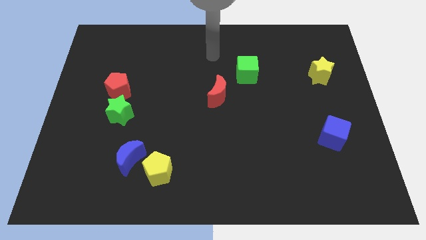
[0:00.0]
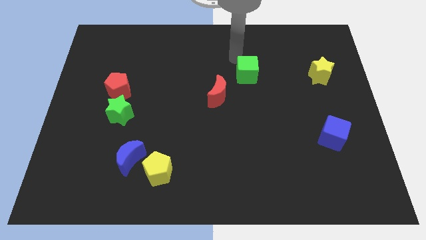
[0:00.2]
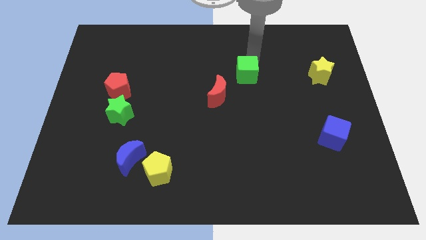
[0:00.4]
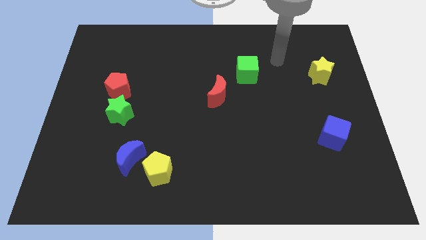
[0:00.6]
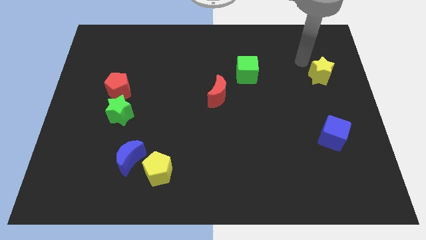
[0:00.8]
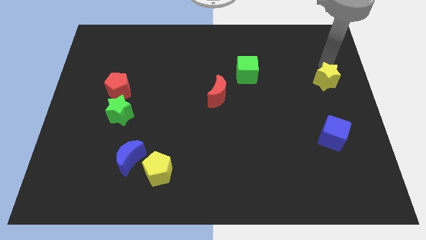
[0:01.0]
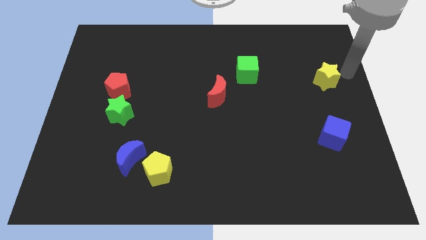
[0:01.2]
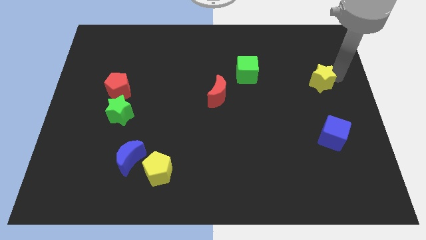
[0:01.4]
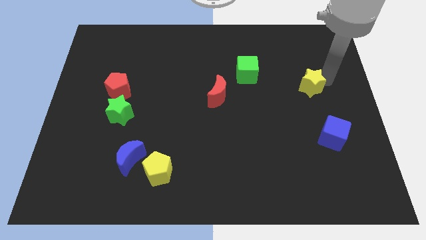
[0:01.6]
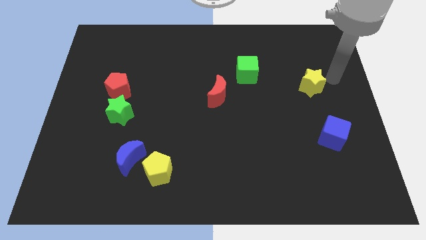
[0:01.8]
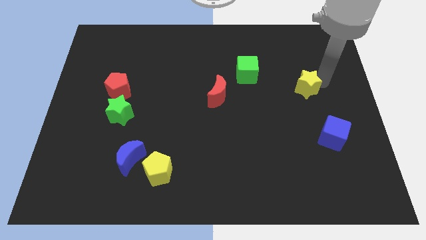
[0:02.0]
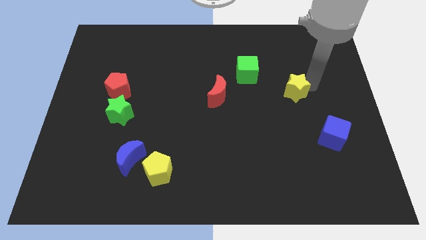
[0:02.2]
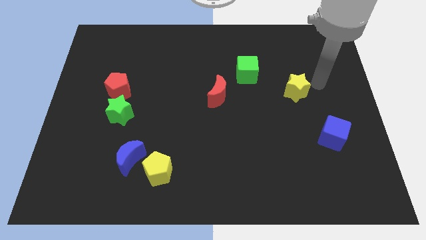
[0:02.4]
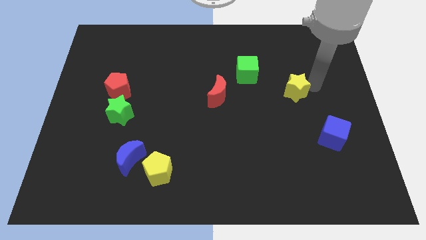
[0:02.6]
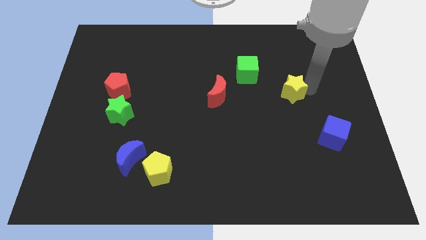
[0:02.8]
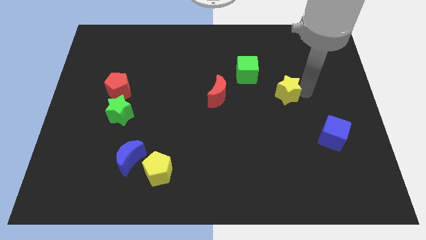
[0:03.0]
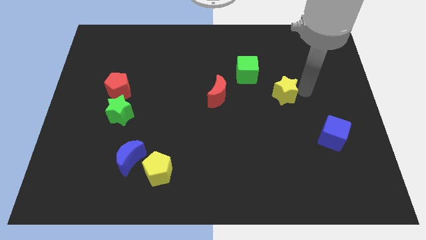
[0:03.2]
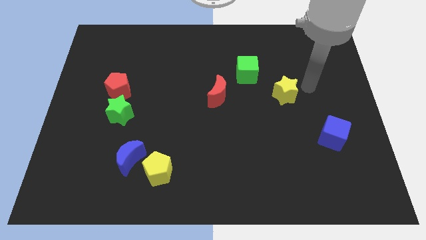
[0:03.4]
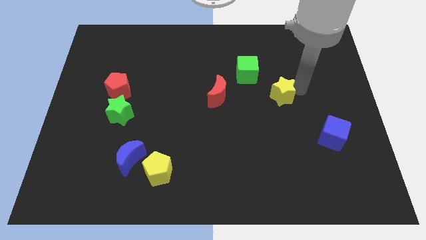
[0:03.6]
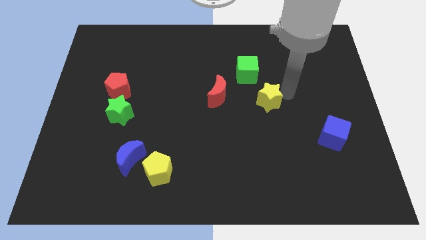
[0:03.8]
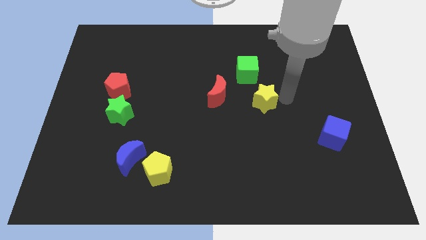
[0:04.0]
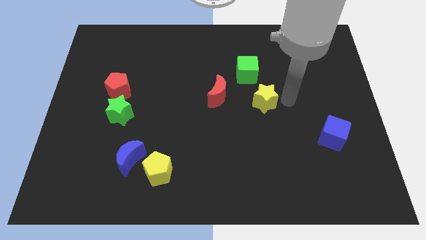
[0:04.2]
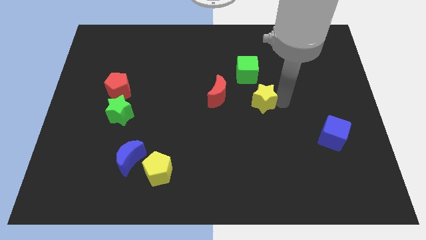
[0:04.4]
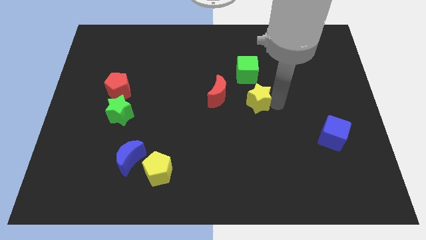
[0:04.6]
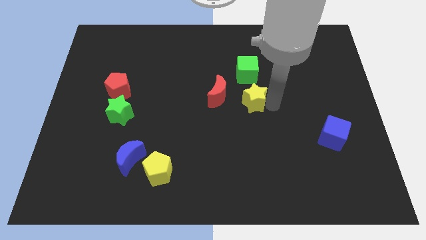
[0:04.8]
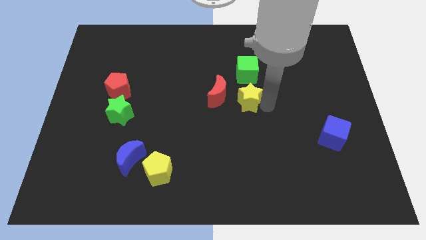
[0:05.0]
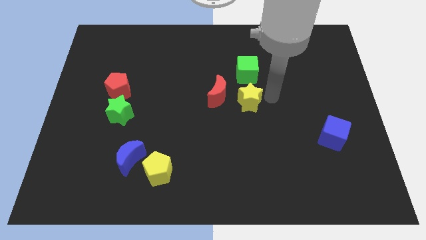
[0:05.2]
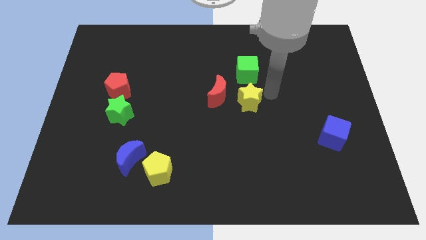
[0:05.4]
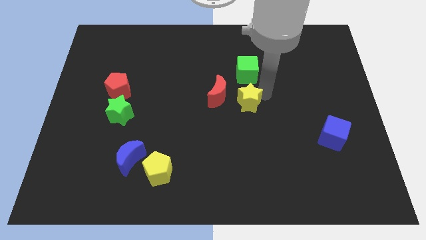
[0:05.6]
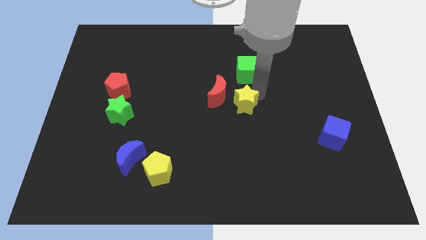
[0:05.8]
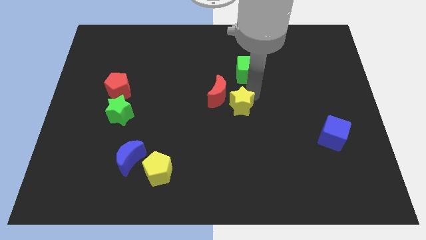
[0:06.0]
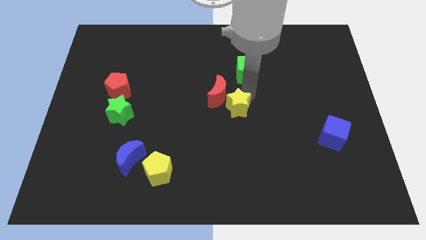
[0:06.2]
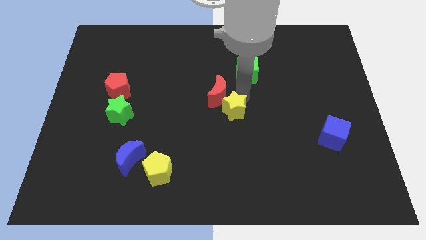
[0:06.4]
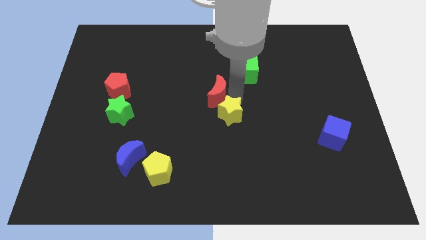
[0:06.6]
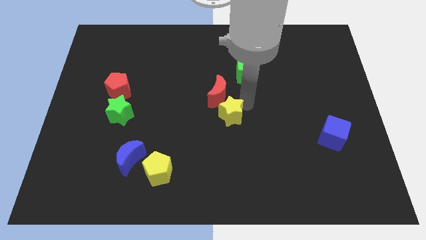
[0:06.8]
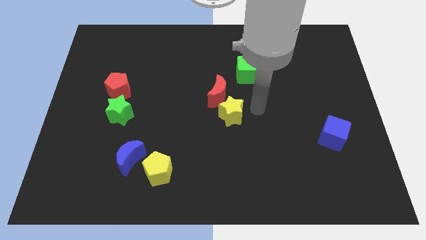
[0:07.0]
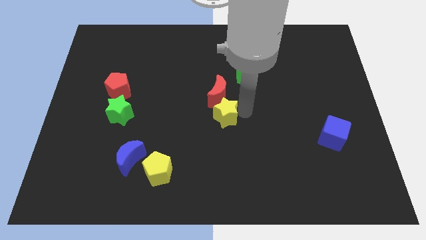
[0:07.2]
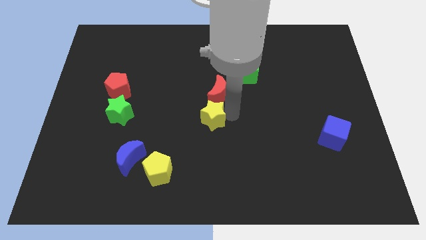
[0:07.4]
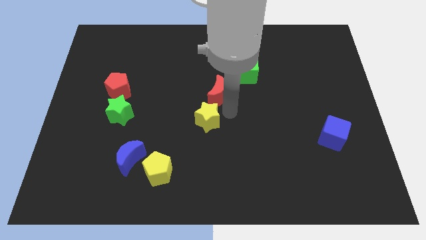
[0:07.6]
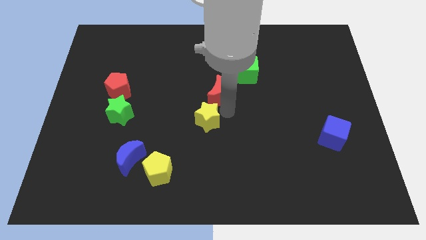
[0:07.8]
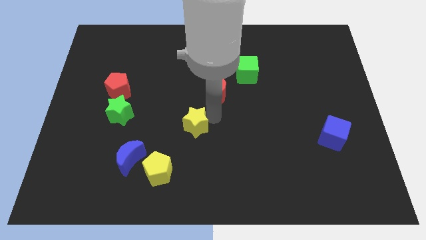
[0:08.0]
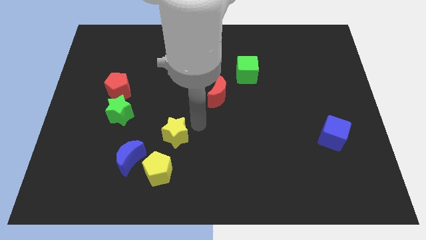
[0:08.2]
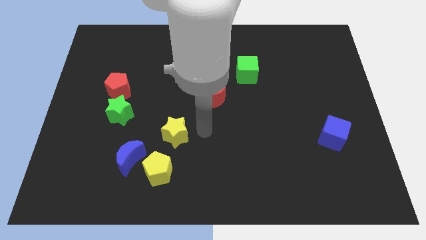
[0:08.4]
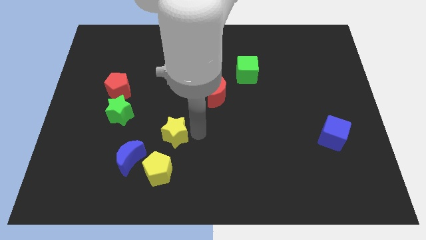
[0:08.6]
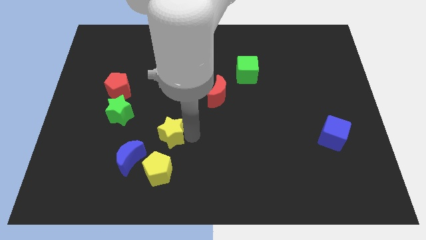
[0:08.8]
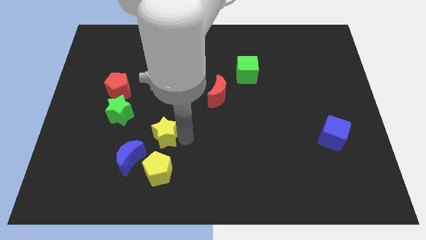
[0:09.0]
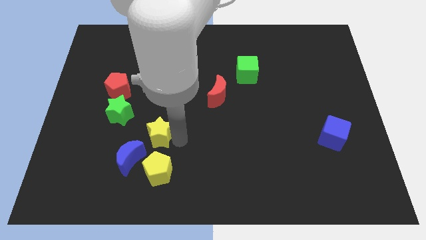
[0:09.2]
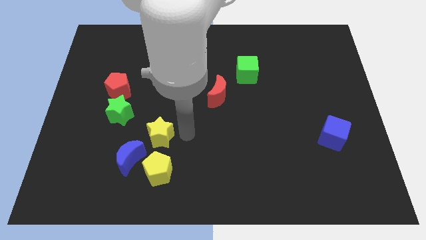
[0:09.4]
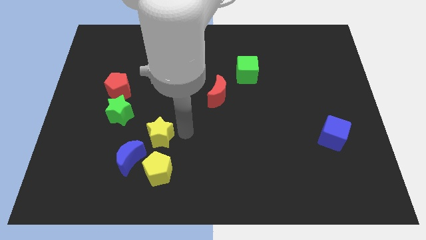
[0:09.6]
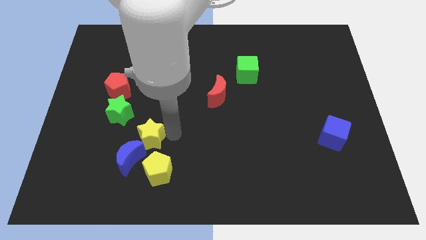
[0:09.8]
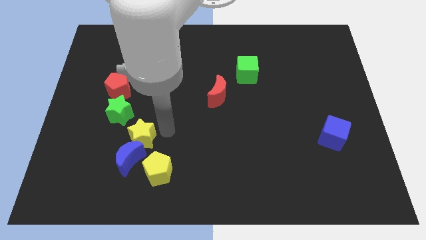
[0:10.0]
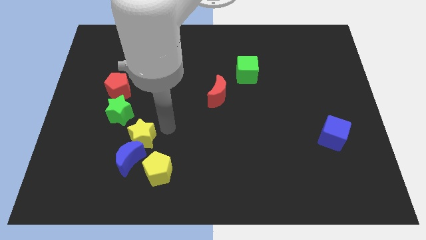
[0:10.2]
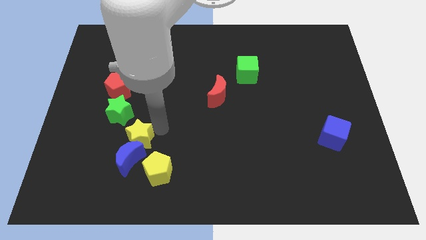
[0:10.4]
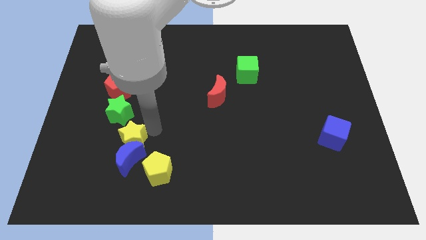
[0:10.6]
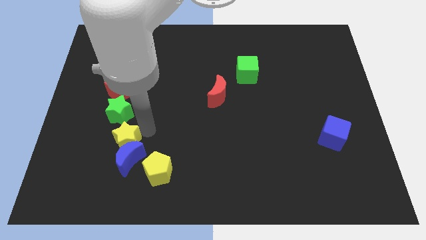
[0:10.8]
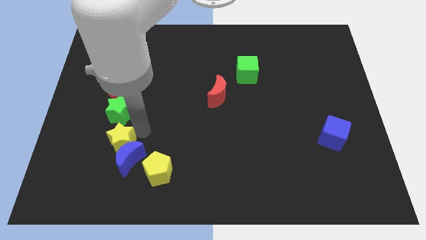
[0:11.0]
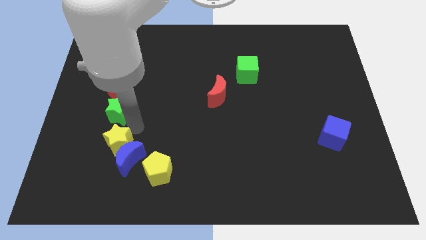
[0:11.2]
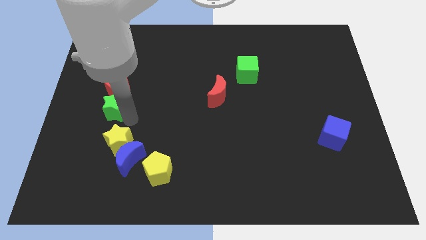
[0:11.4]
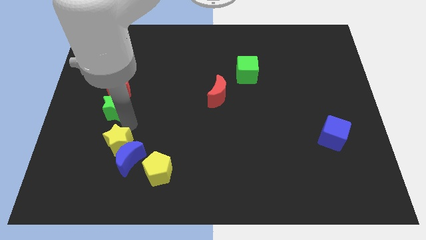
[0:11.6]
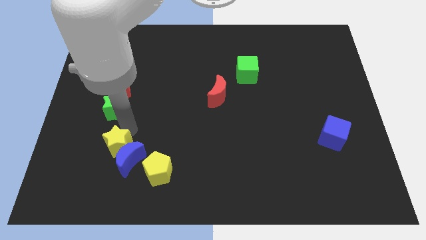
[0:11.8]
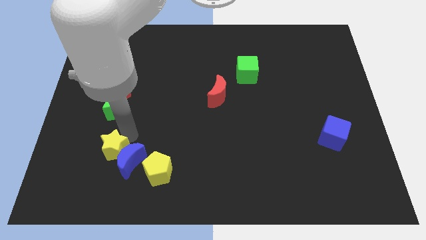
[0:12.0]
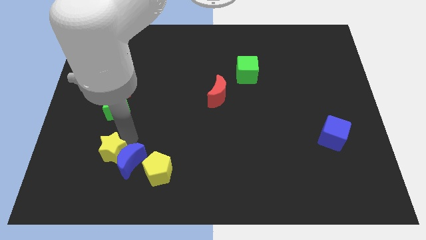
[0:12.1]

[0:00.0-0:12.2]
push the yellow star to the left side of the yellow pentagon
